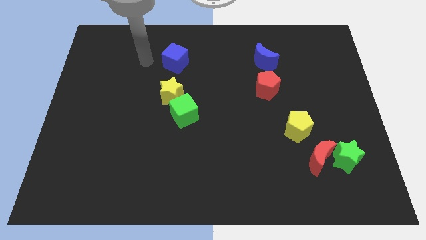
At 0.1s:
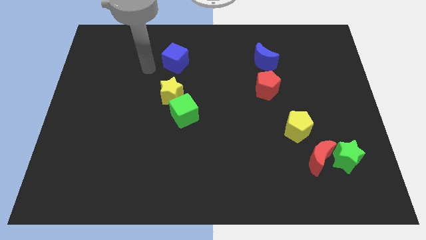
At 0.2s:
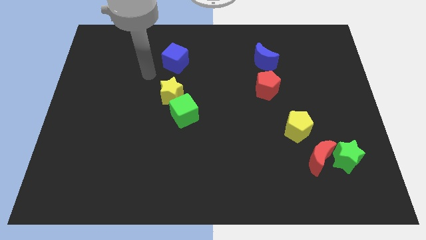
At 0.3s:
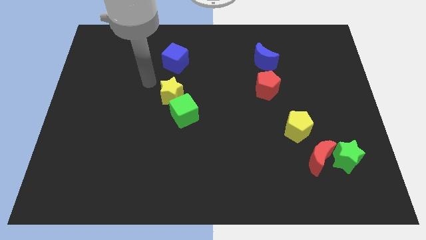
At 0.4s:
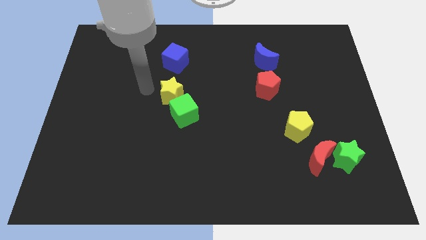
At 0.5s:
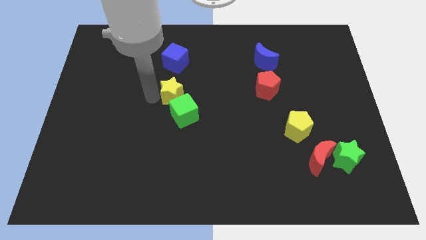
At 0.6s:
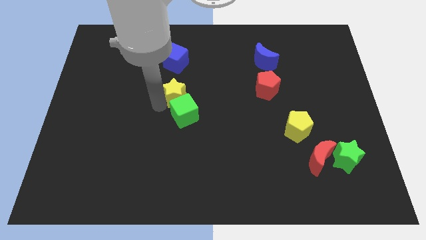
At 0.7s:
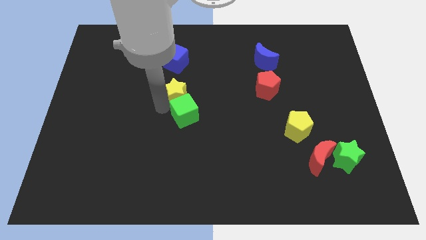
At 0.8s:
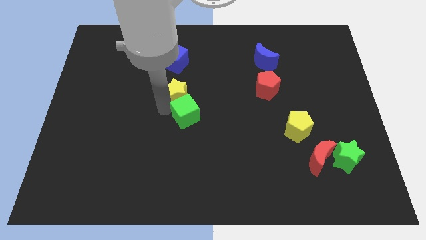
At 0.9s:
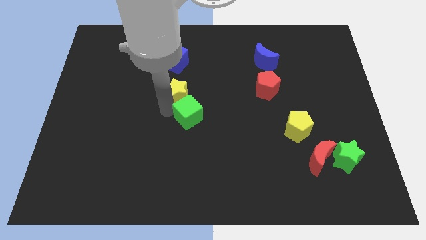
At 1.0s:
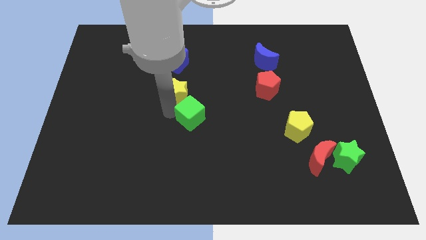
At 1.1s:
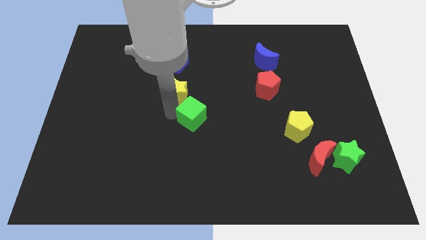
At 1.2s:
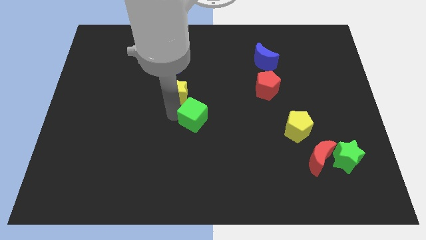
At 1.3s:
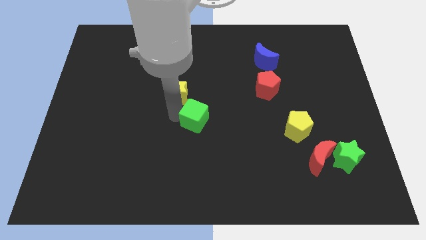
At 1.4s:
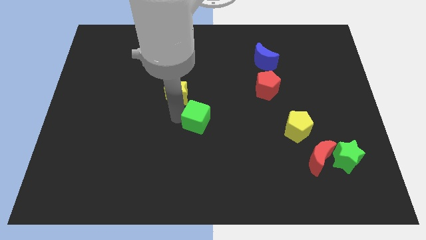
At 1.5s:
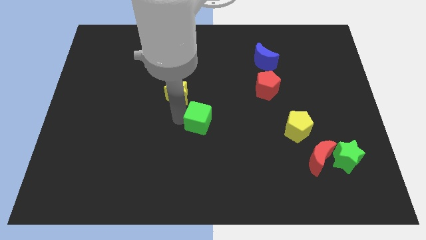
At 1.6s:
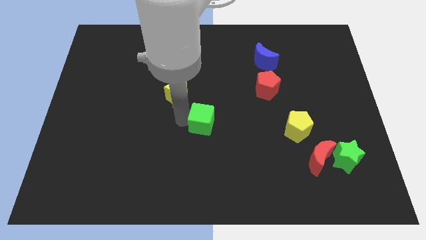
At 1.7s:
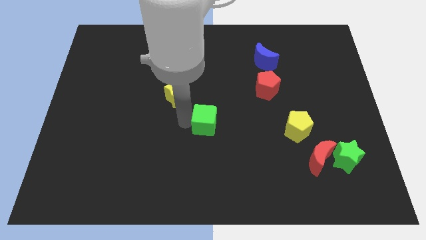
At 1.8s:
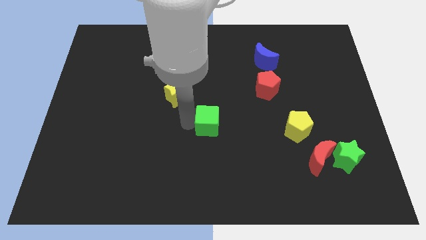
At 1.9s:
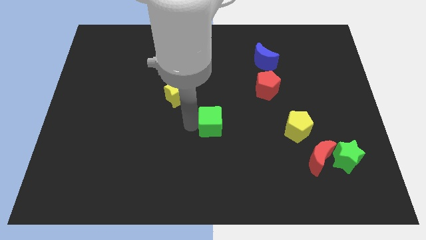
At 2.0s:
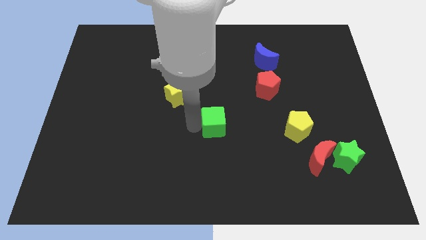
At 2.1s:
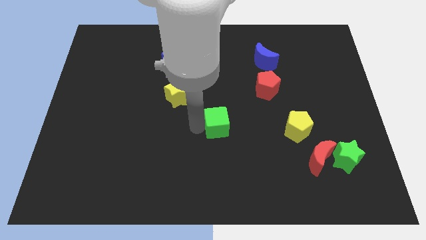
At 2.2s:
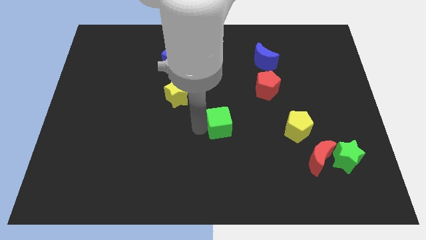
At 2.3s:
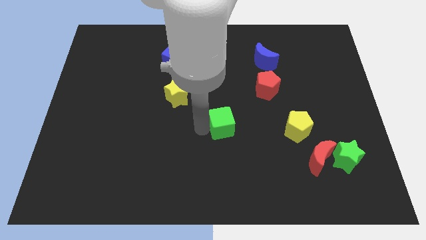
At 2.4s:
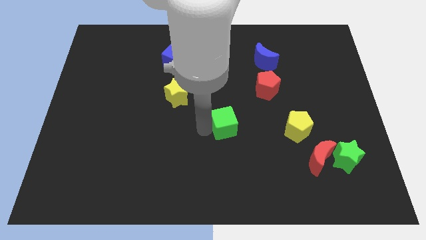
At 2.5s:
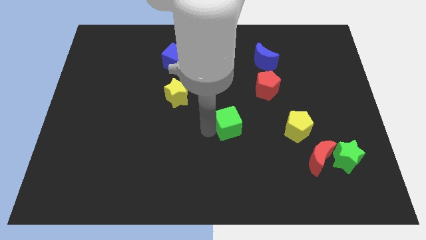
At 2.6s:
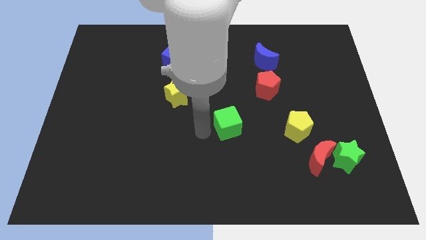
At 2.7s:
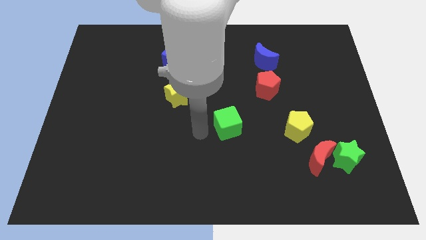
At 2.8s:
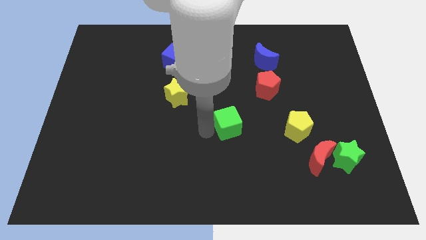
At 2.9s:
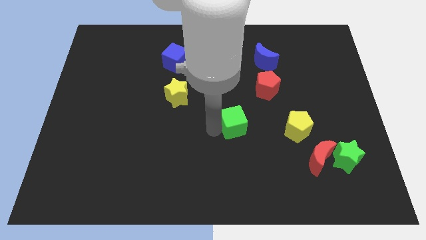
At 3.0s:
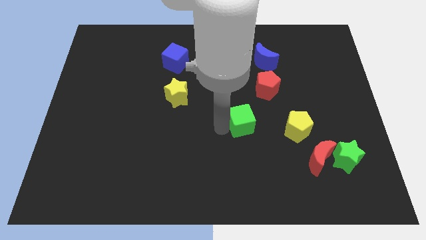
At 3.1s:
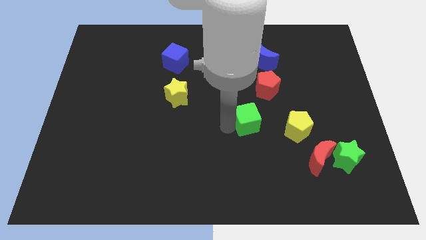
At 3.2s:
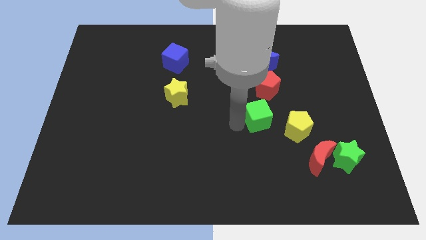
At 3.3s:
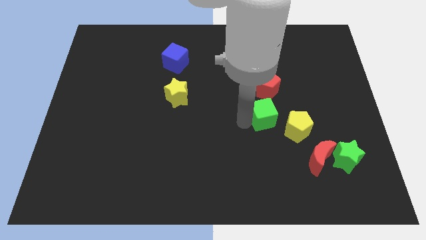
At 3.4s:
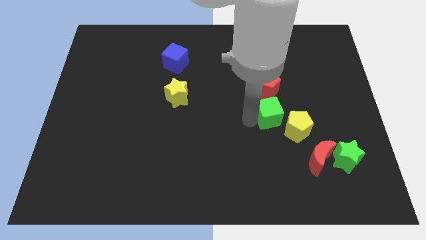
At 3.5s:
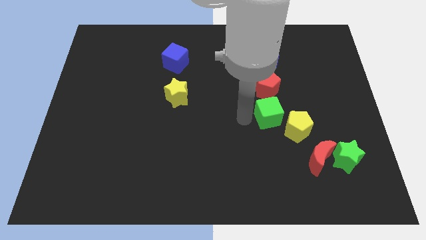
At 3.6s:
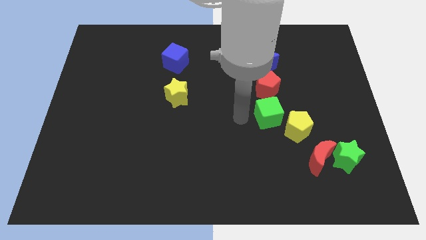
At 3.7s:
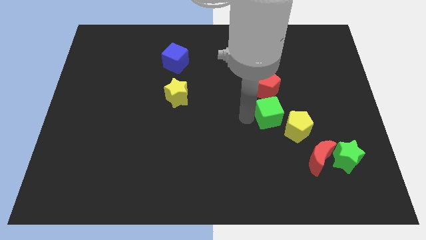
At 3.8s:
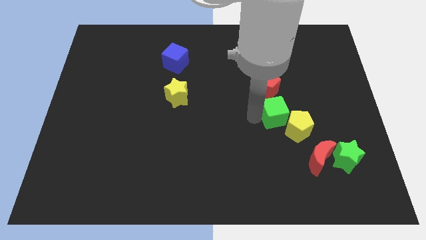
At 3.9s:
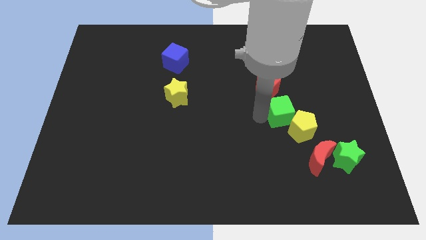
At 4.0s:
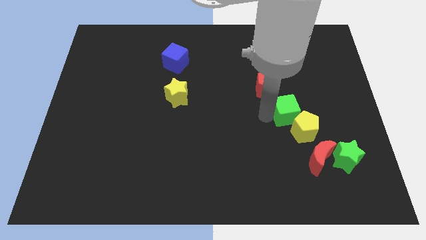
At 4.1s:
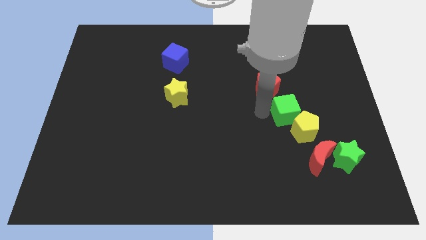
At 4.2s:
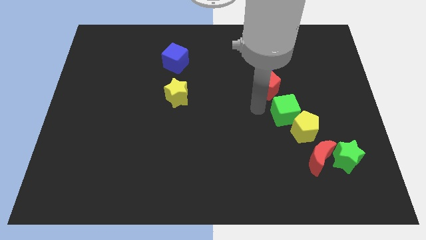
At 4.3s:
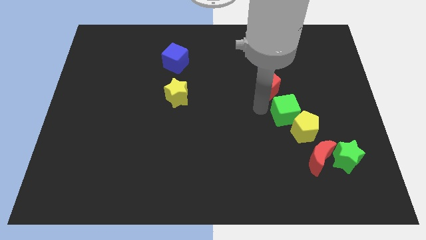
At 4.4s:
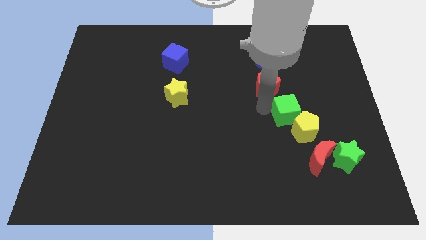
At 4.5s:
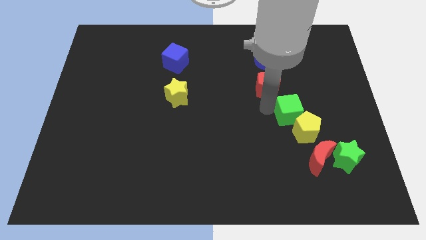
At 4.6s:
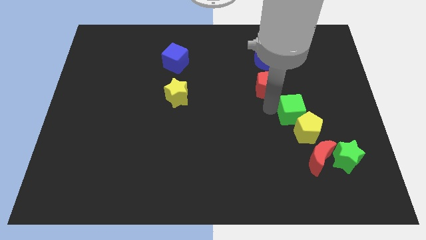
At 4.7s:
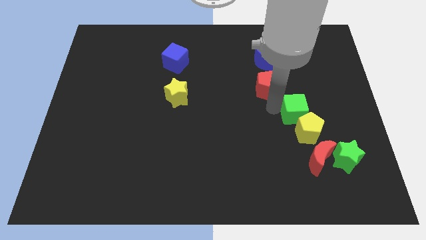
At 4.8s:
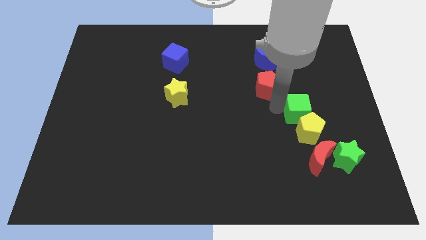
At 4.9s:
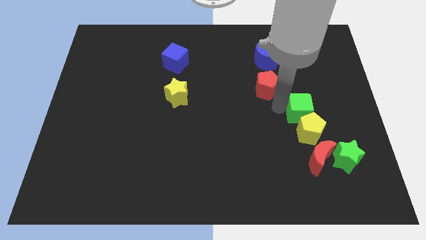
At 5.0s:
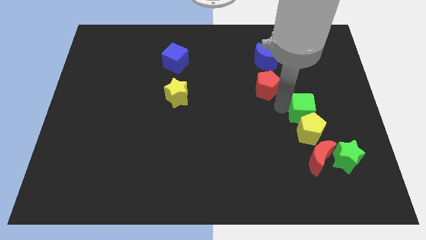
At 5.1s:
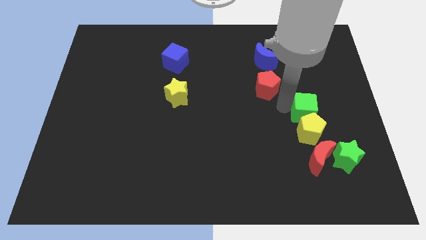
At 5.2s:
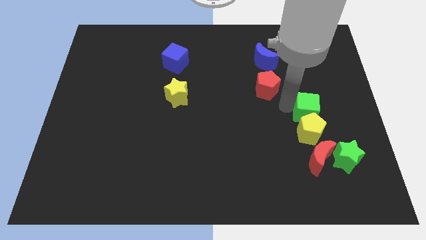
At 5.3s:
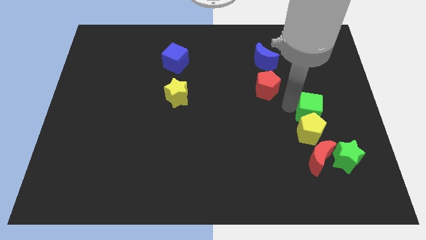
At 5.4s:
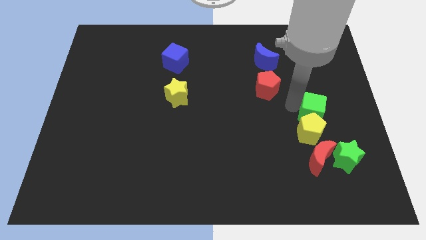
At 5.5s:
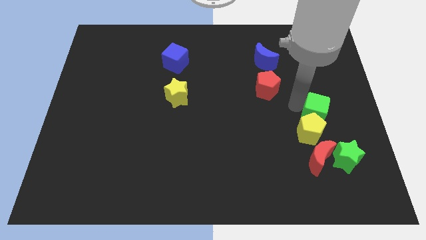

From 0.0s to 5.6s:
slide the green cube to the top of the green star

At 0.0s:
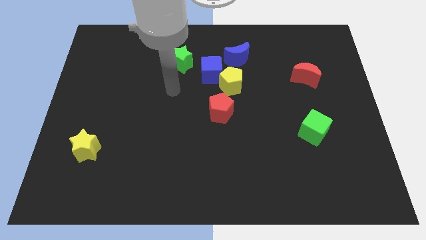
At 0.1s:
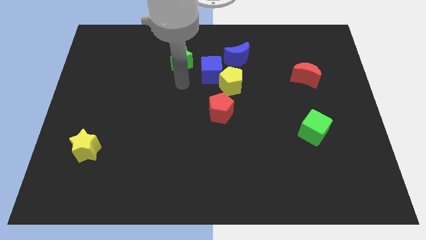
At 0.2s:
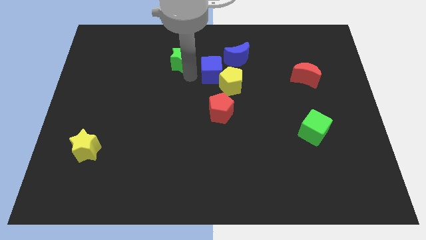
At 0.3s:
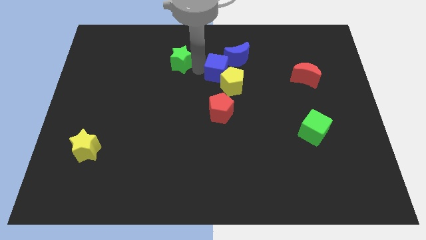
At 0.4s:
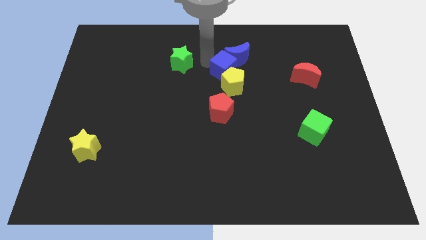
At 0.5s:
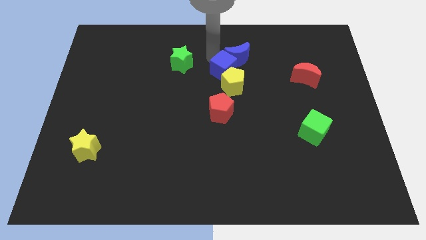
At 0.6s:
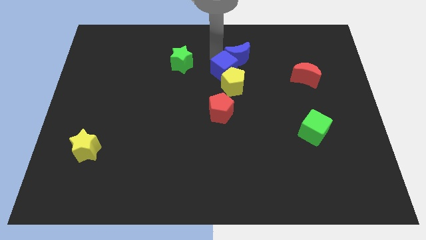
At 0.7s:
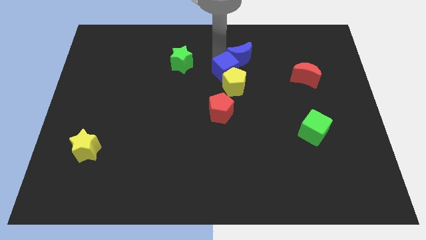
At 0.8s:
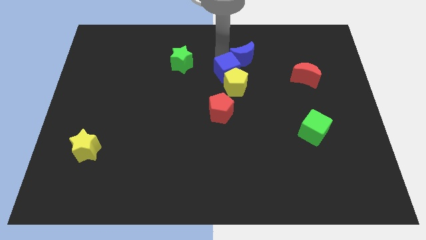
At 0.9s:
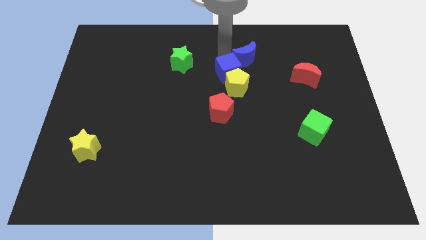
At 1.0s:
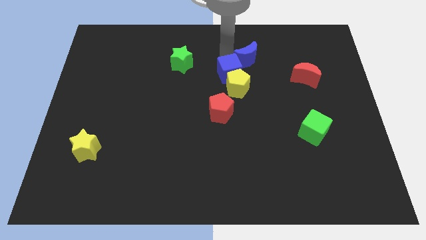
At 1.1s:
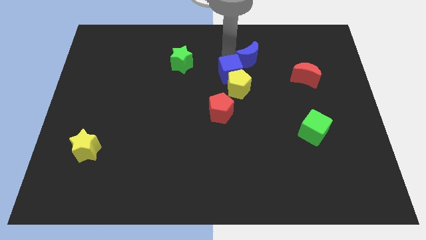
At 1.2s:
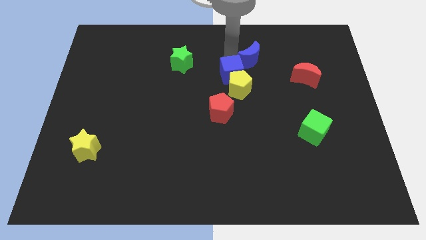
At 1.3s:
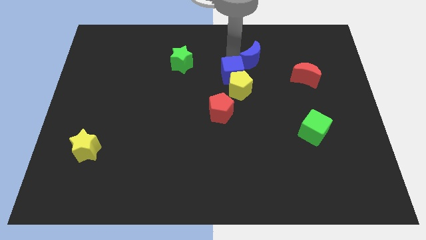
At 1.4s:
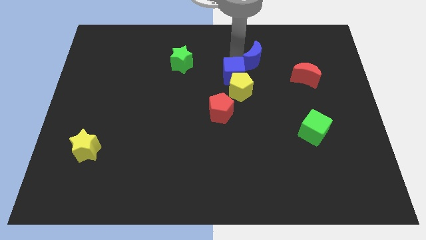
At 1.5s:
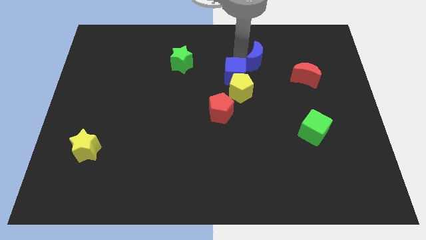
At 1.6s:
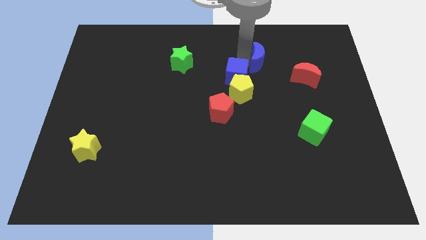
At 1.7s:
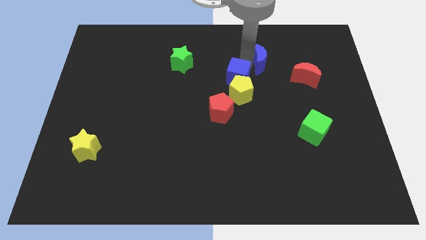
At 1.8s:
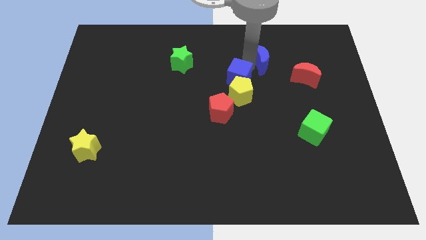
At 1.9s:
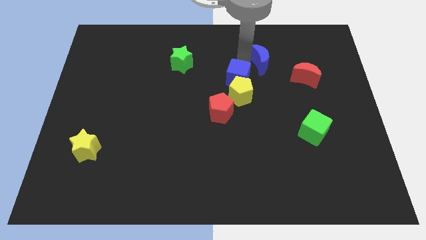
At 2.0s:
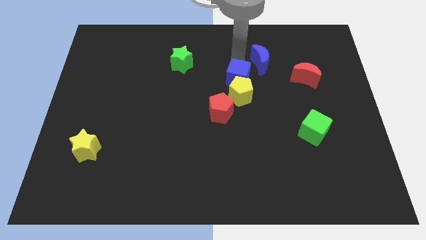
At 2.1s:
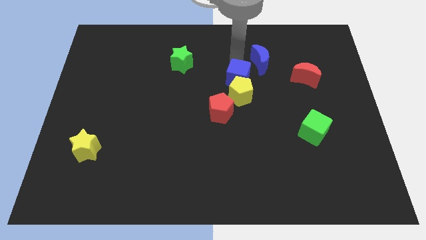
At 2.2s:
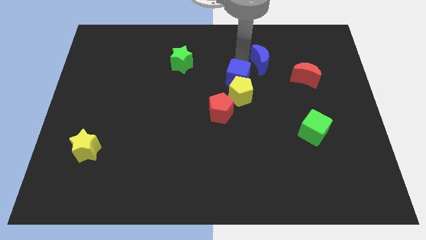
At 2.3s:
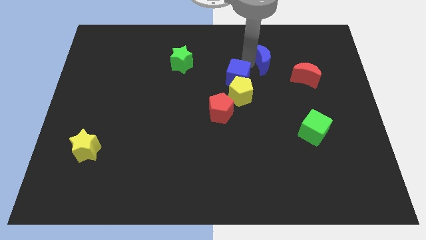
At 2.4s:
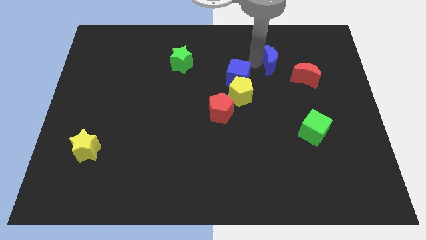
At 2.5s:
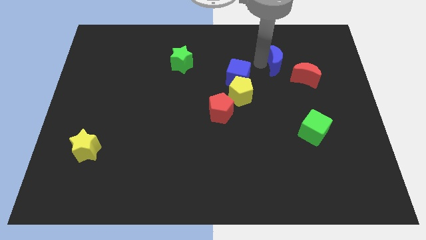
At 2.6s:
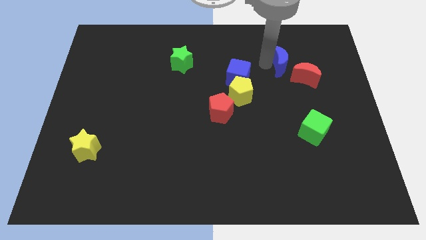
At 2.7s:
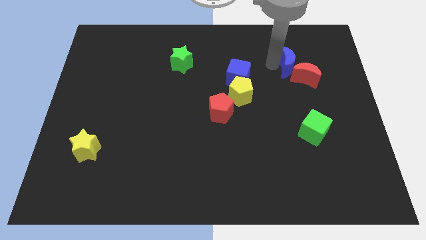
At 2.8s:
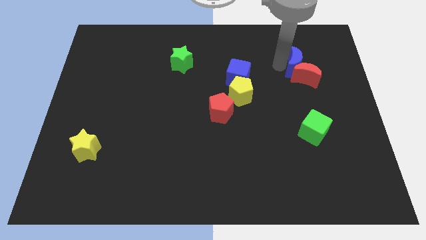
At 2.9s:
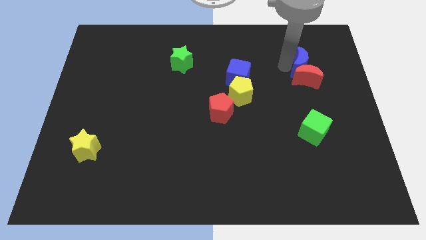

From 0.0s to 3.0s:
slide the blue moon diagonally up and to the right of the red moon
